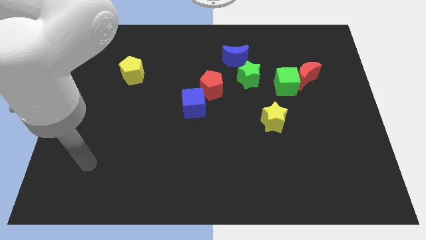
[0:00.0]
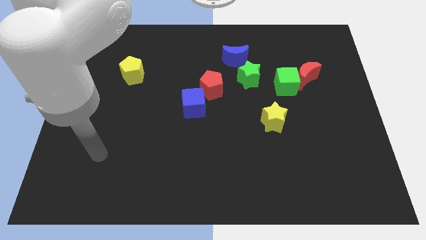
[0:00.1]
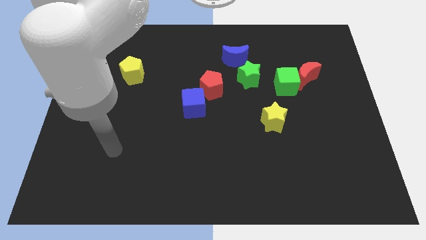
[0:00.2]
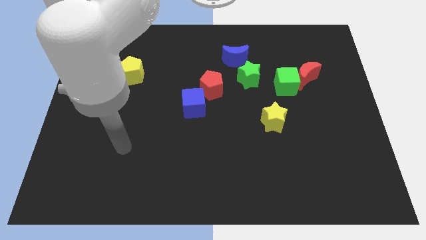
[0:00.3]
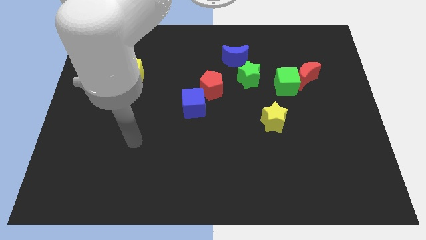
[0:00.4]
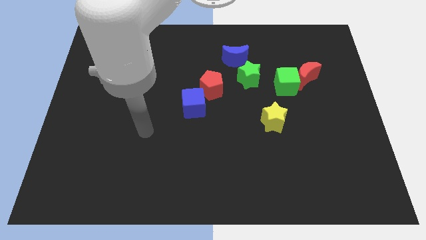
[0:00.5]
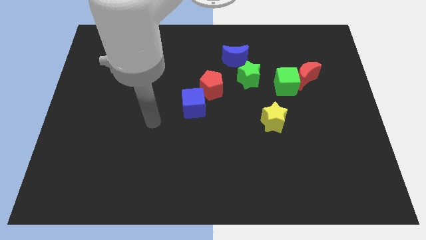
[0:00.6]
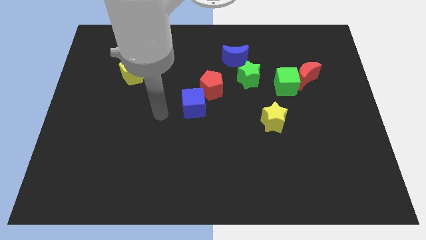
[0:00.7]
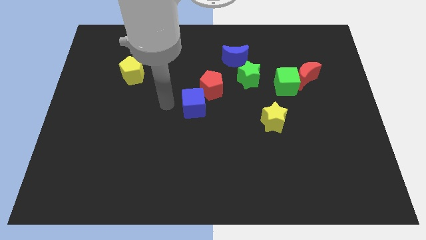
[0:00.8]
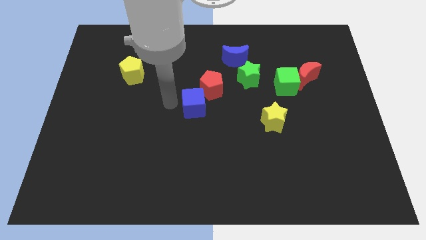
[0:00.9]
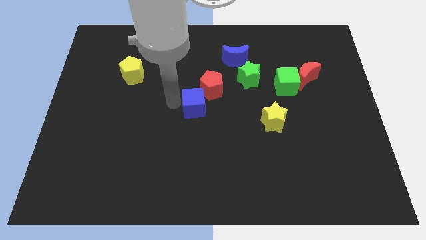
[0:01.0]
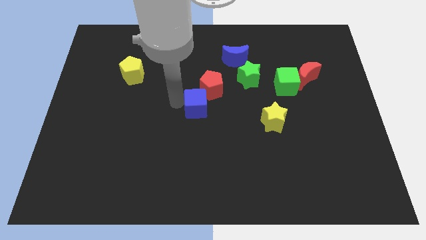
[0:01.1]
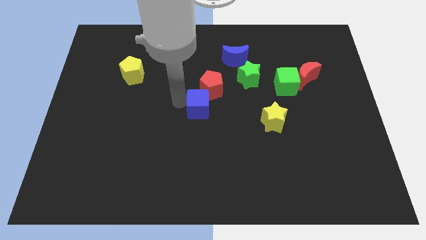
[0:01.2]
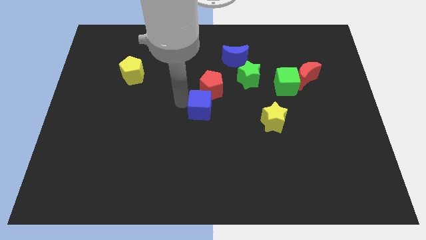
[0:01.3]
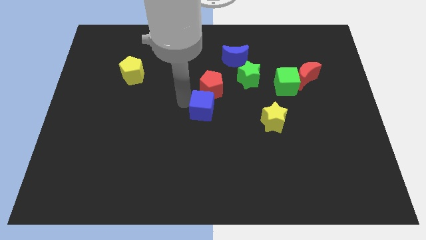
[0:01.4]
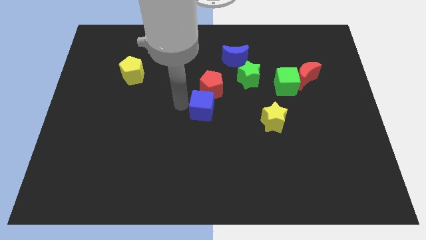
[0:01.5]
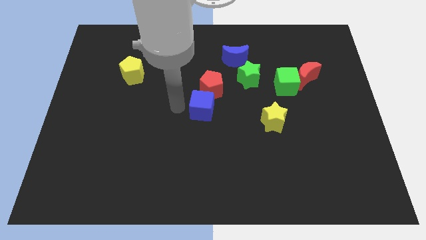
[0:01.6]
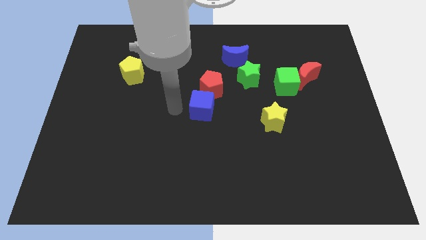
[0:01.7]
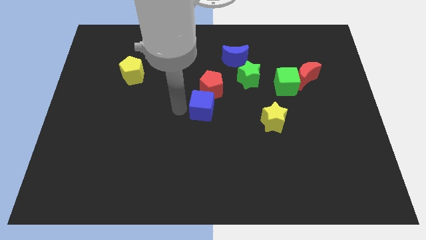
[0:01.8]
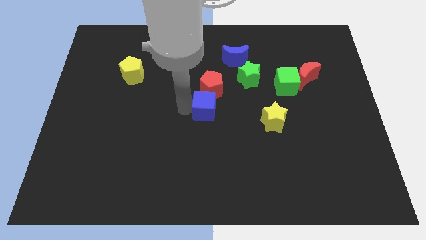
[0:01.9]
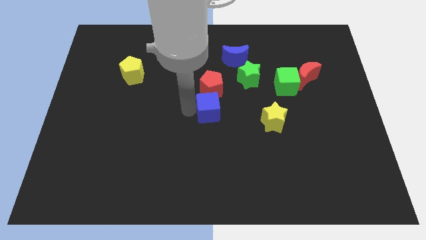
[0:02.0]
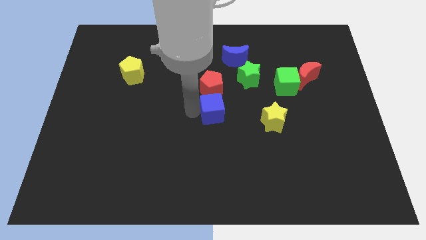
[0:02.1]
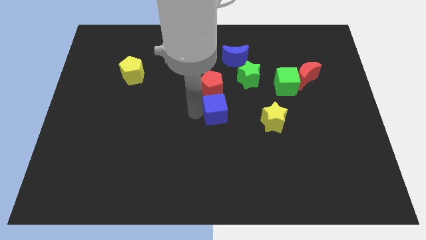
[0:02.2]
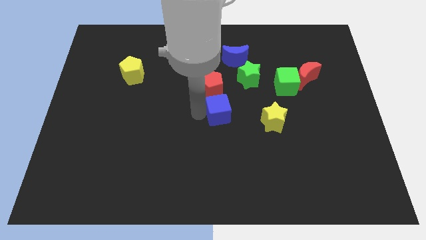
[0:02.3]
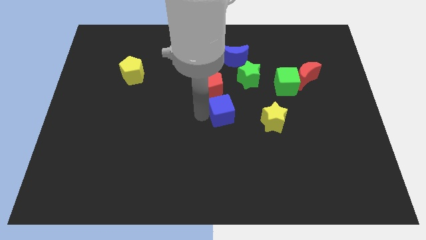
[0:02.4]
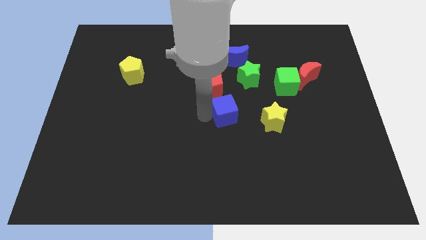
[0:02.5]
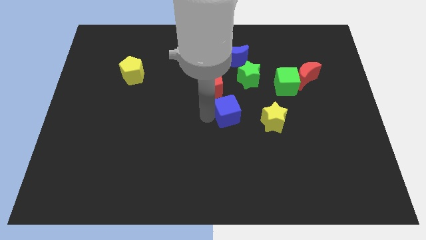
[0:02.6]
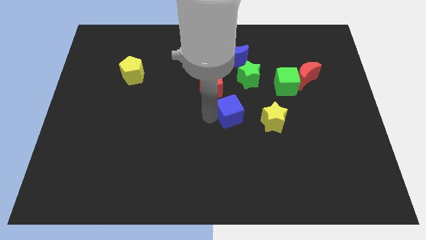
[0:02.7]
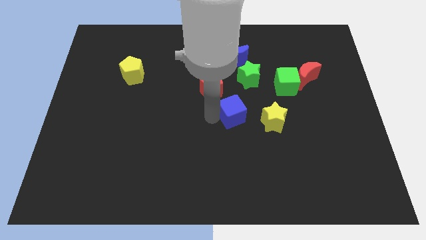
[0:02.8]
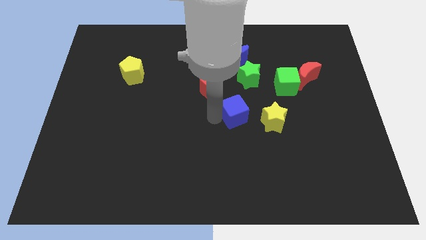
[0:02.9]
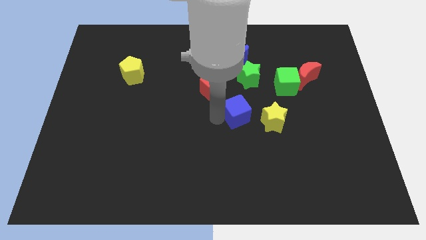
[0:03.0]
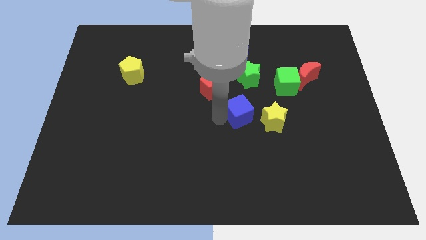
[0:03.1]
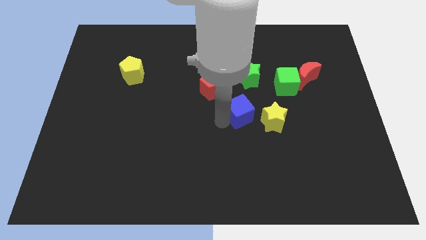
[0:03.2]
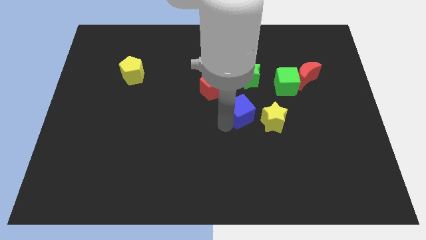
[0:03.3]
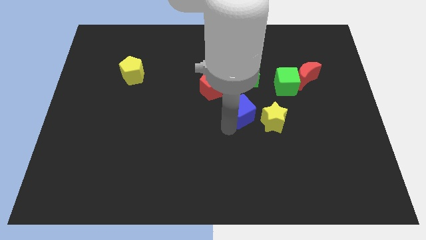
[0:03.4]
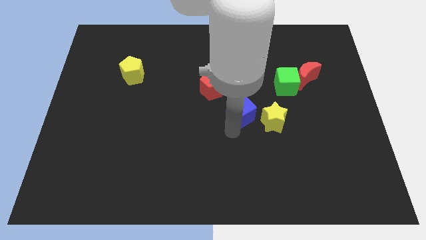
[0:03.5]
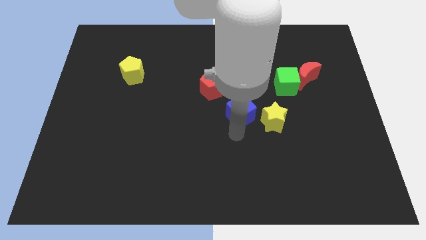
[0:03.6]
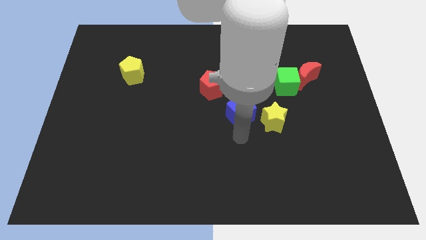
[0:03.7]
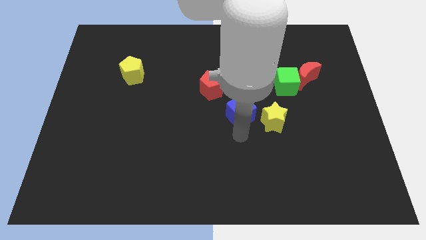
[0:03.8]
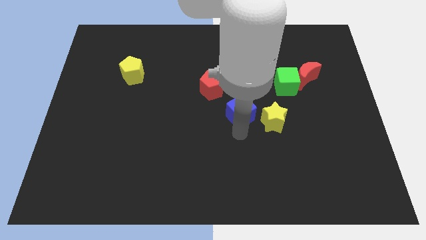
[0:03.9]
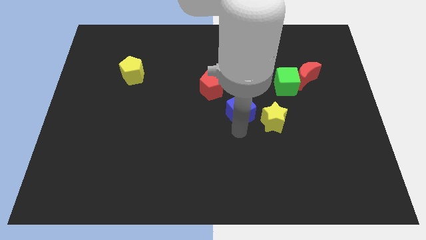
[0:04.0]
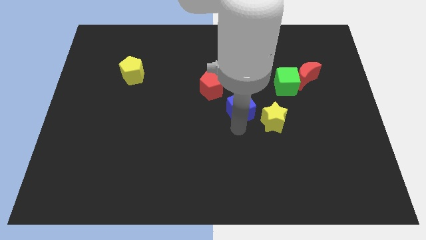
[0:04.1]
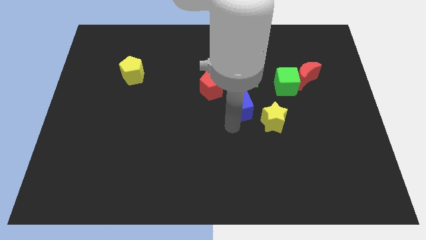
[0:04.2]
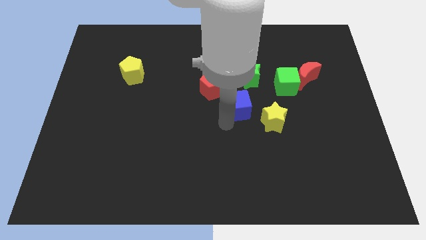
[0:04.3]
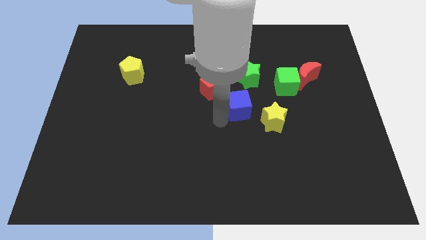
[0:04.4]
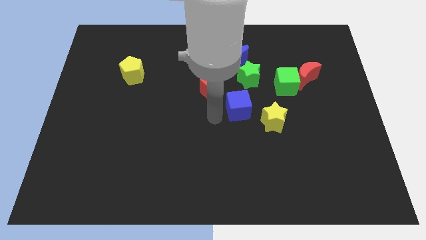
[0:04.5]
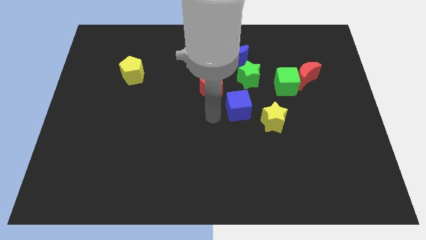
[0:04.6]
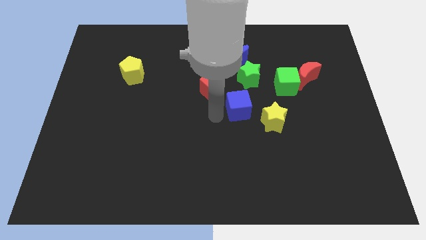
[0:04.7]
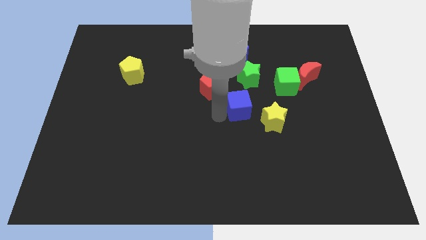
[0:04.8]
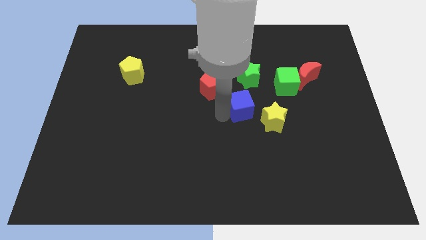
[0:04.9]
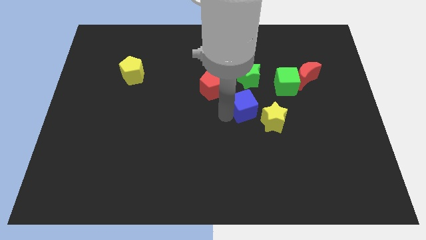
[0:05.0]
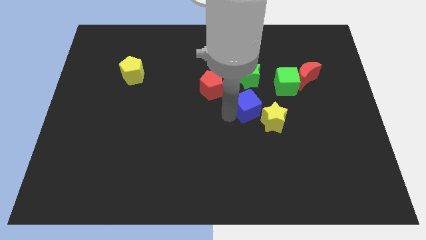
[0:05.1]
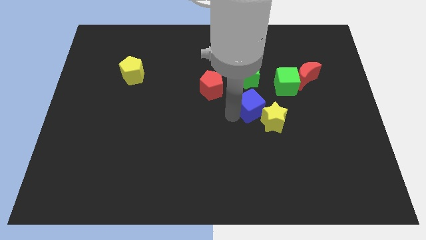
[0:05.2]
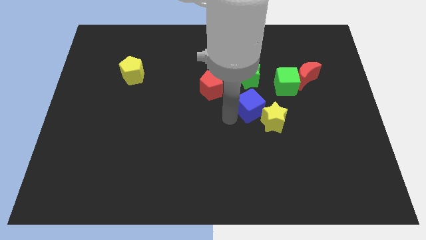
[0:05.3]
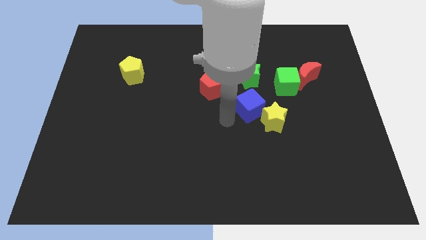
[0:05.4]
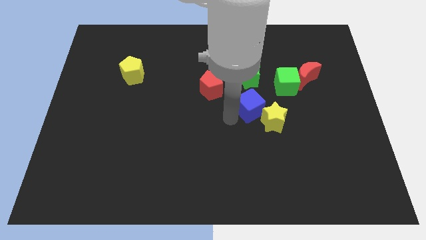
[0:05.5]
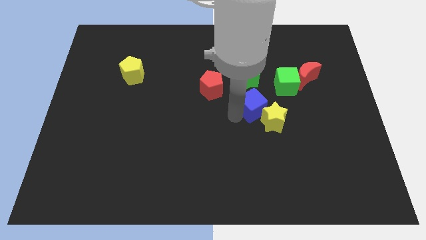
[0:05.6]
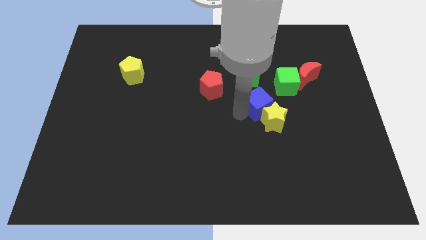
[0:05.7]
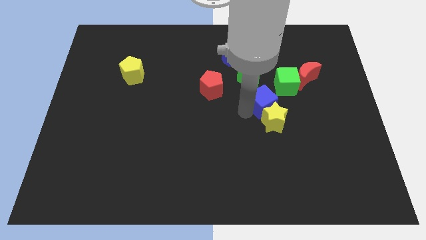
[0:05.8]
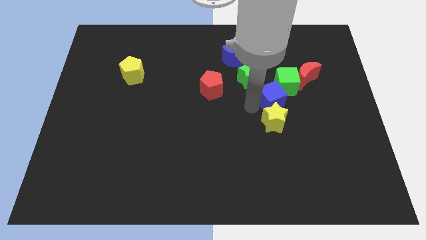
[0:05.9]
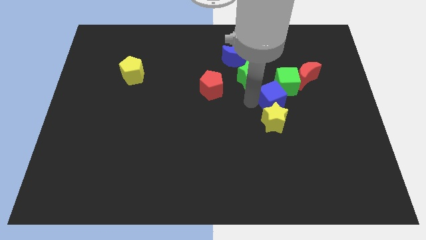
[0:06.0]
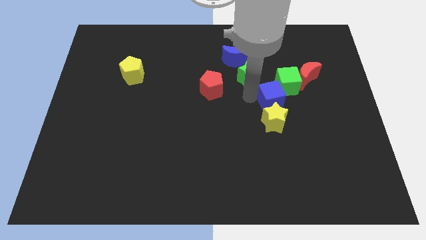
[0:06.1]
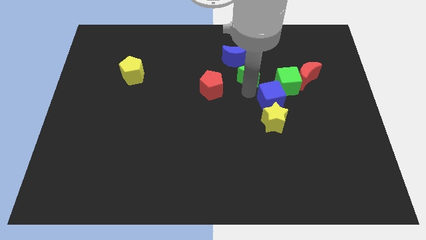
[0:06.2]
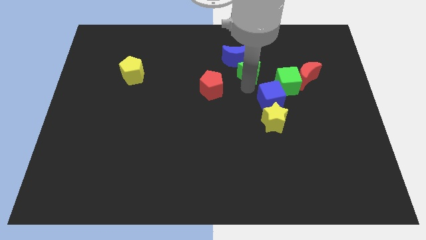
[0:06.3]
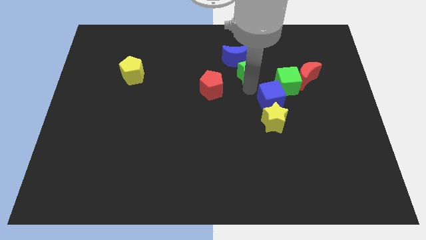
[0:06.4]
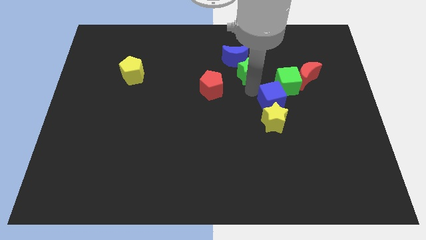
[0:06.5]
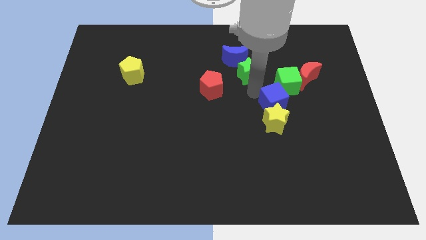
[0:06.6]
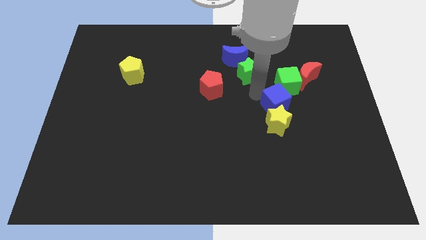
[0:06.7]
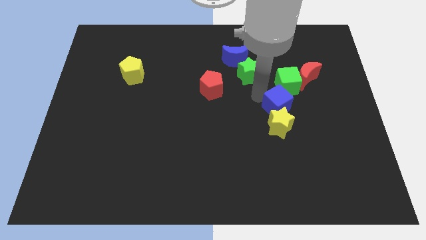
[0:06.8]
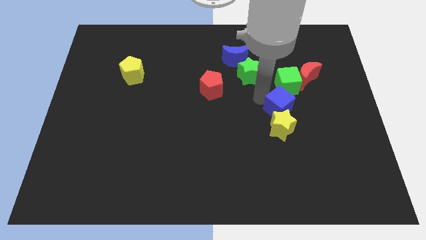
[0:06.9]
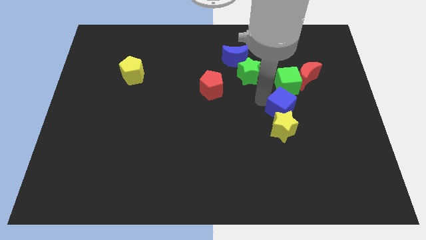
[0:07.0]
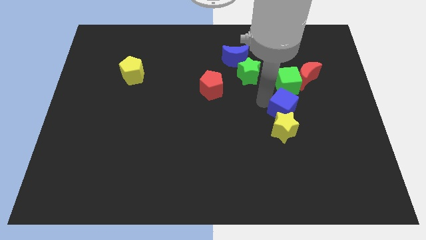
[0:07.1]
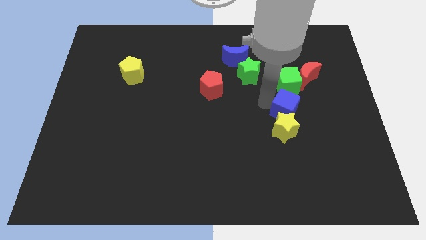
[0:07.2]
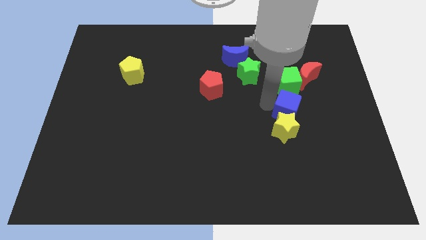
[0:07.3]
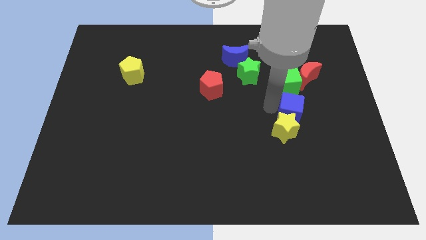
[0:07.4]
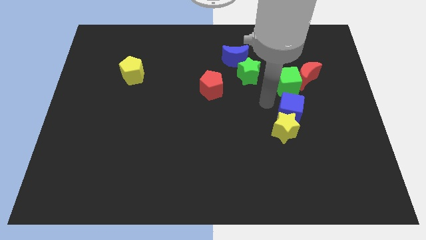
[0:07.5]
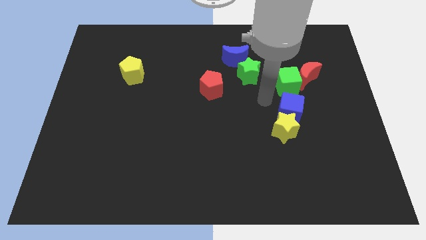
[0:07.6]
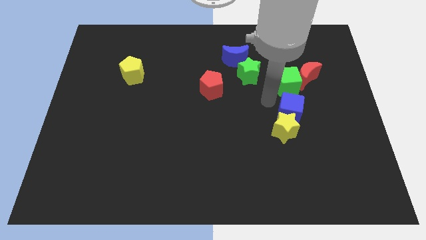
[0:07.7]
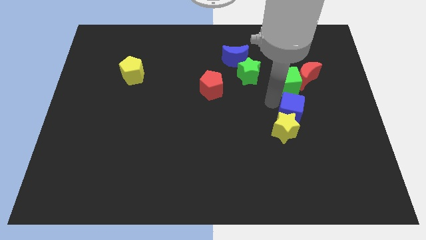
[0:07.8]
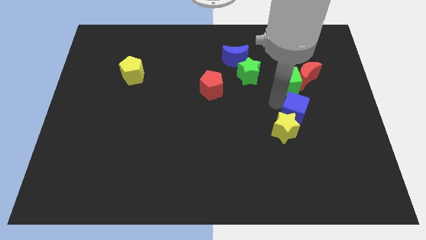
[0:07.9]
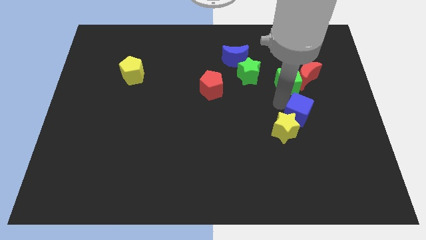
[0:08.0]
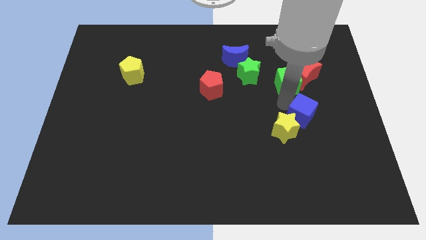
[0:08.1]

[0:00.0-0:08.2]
put the blue cube to the right of the yellow star
